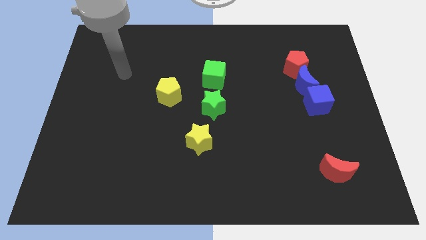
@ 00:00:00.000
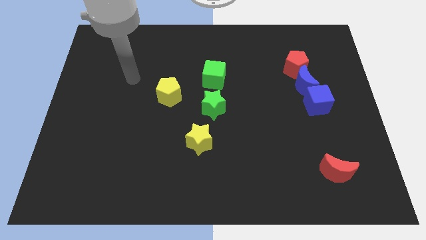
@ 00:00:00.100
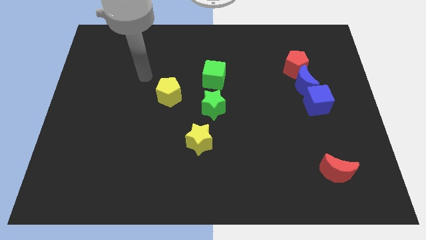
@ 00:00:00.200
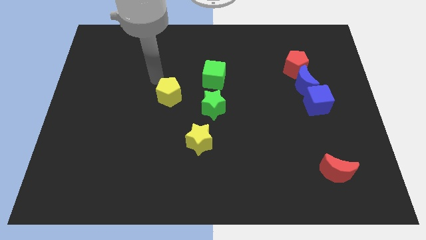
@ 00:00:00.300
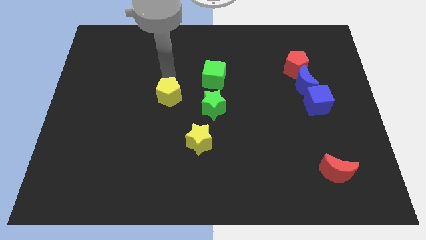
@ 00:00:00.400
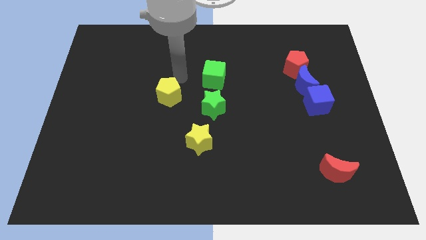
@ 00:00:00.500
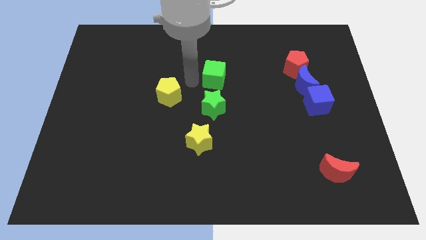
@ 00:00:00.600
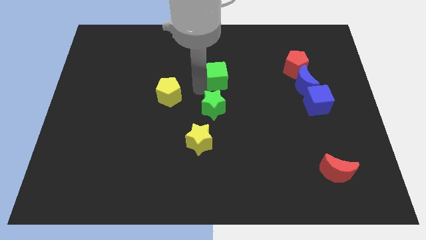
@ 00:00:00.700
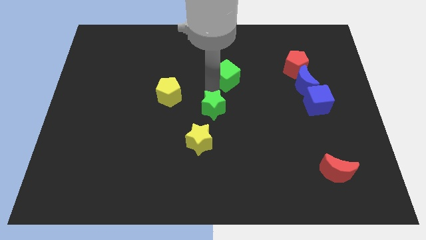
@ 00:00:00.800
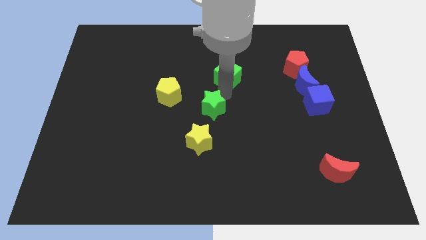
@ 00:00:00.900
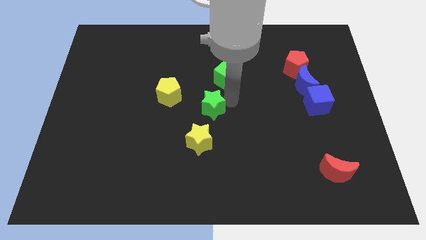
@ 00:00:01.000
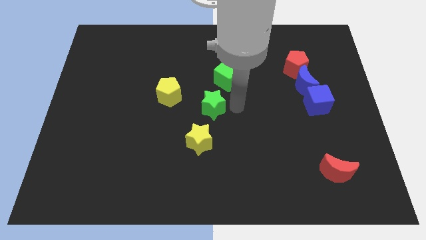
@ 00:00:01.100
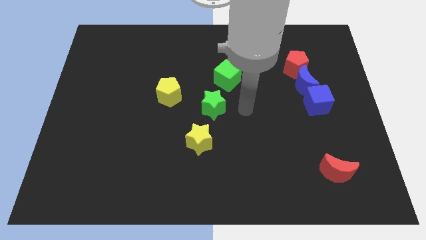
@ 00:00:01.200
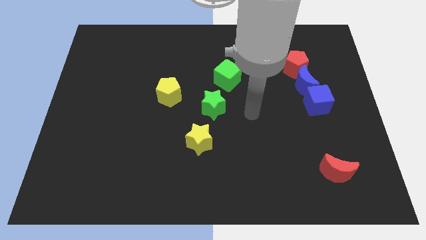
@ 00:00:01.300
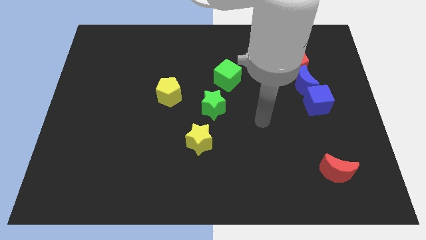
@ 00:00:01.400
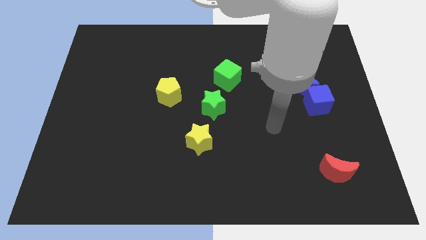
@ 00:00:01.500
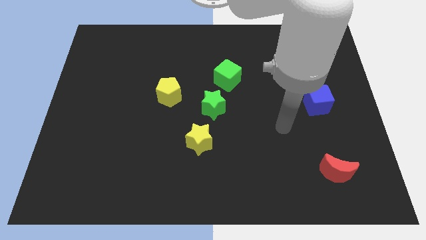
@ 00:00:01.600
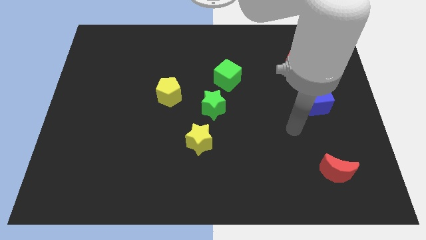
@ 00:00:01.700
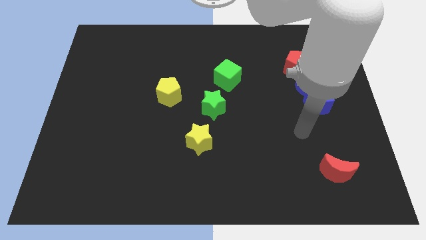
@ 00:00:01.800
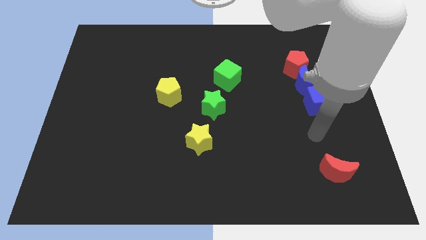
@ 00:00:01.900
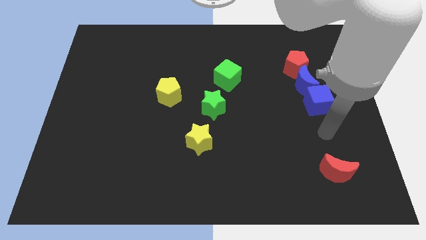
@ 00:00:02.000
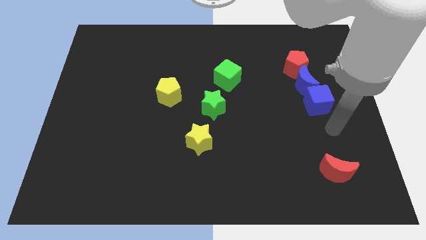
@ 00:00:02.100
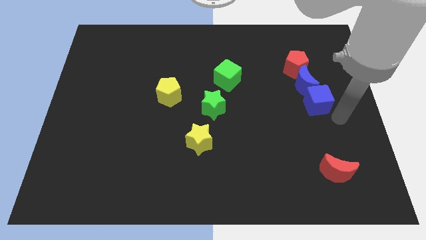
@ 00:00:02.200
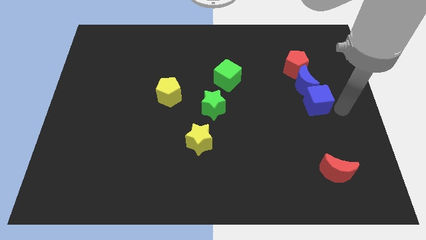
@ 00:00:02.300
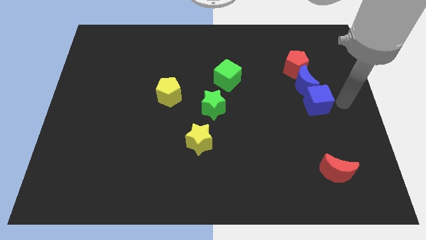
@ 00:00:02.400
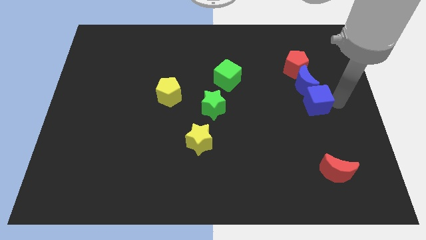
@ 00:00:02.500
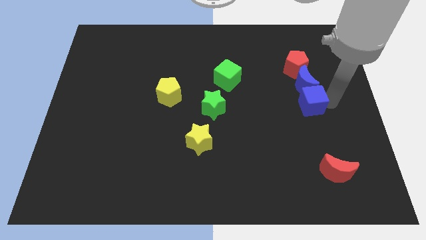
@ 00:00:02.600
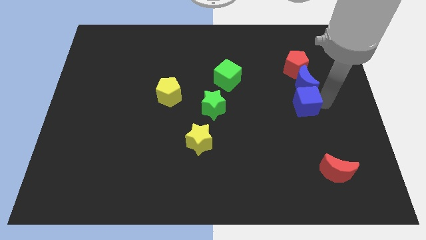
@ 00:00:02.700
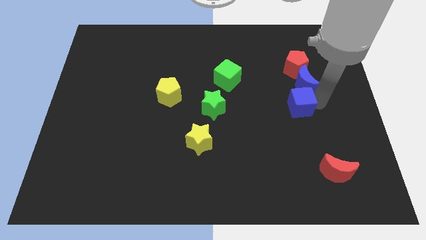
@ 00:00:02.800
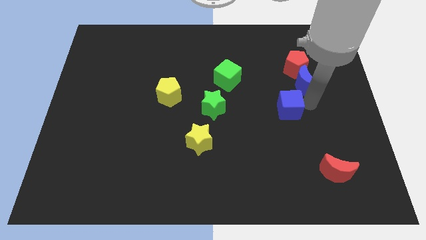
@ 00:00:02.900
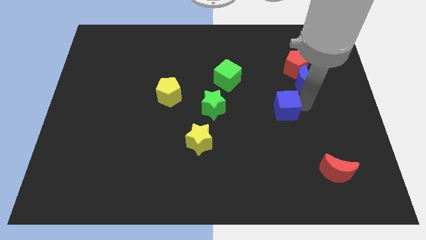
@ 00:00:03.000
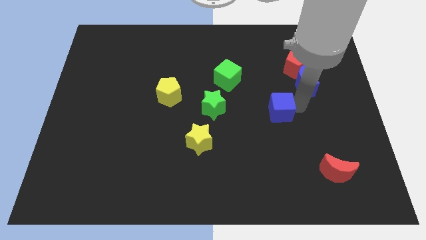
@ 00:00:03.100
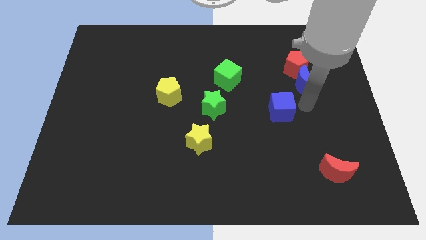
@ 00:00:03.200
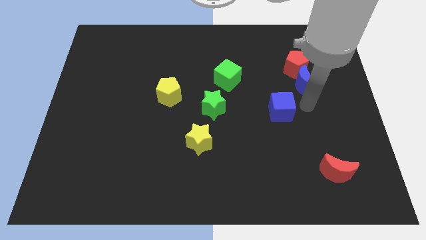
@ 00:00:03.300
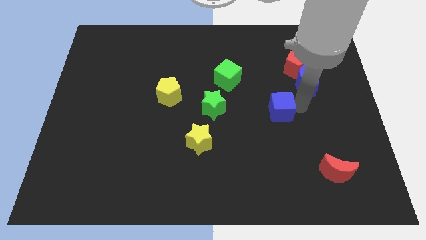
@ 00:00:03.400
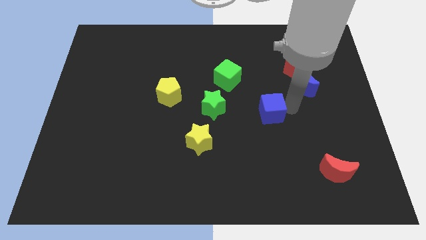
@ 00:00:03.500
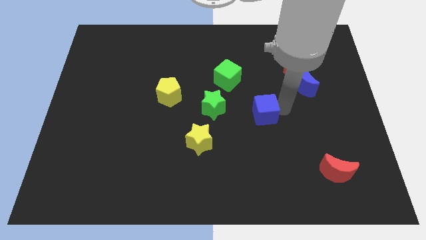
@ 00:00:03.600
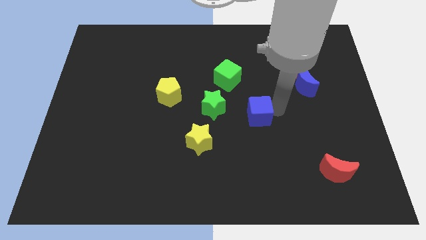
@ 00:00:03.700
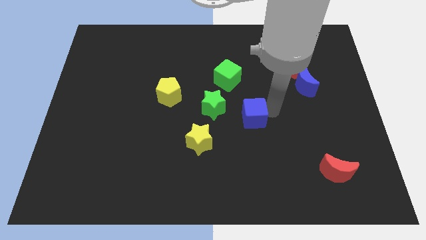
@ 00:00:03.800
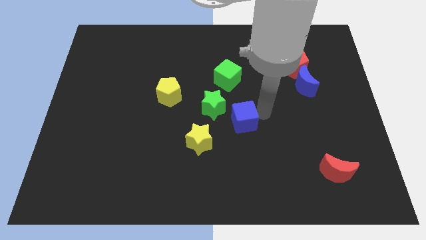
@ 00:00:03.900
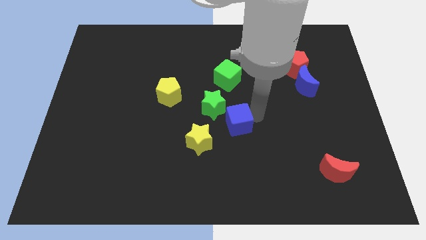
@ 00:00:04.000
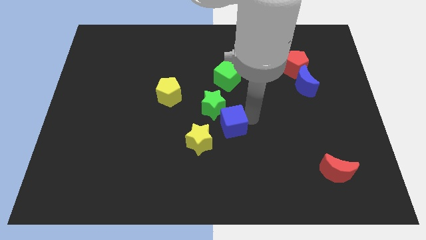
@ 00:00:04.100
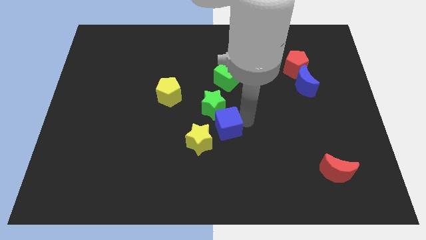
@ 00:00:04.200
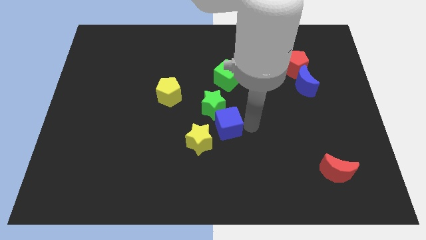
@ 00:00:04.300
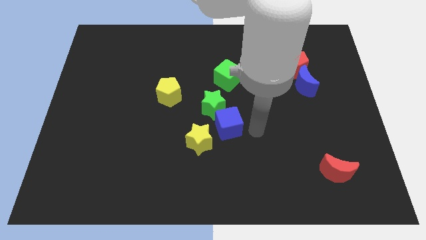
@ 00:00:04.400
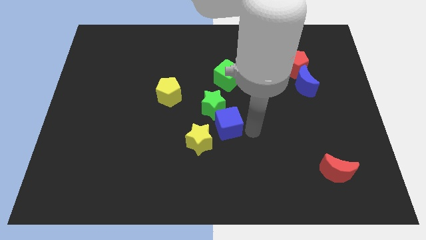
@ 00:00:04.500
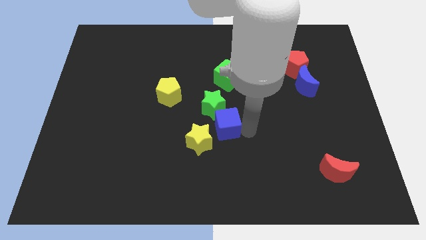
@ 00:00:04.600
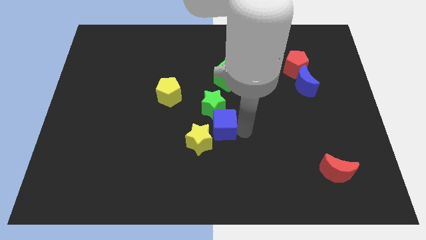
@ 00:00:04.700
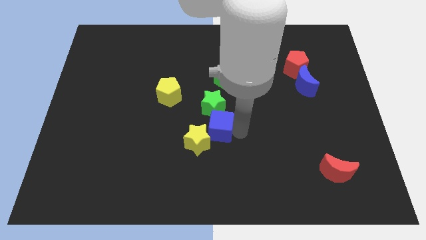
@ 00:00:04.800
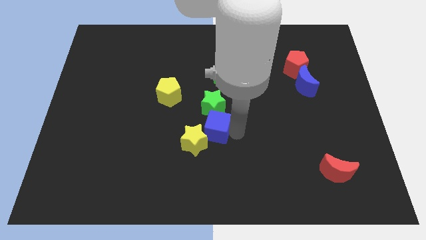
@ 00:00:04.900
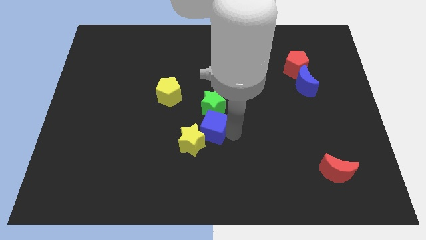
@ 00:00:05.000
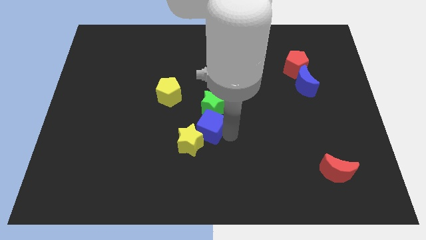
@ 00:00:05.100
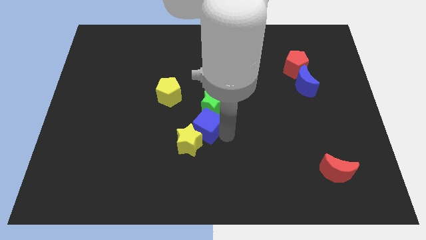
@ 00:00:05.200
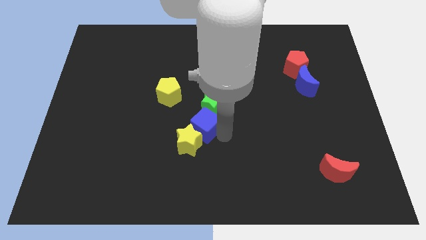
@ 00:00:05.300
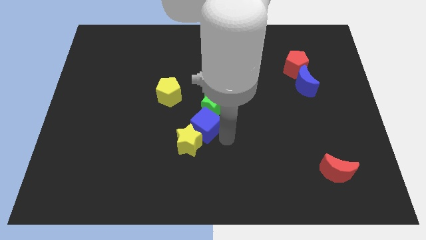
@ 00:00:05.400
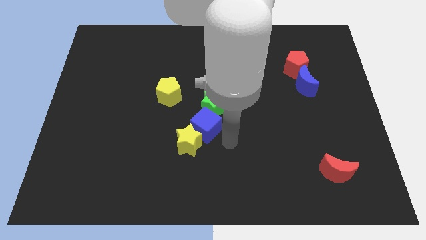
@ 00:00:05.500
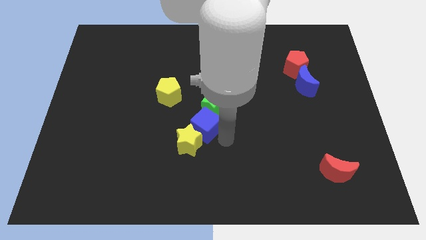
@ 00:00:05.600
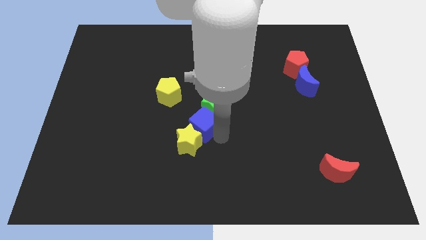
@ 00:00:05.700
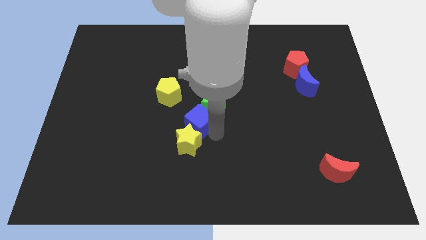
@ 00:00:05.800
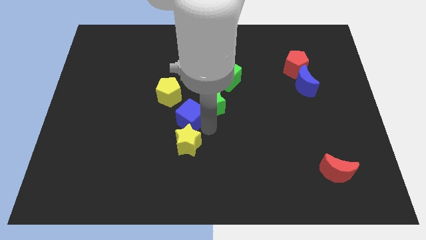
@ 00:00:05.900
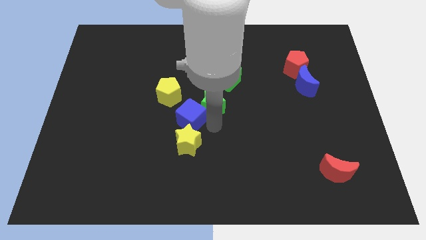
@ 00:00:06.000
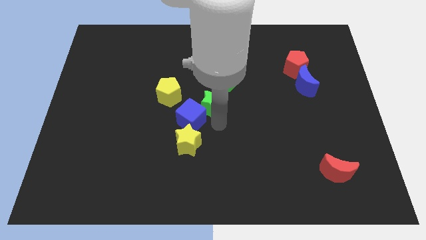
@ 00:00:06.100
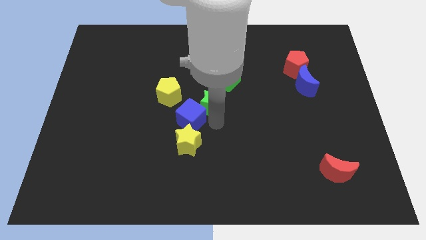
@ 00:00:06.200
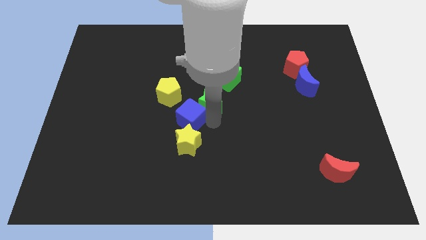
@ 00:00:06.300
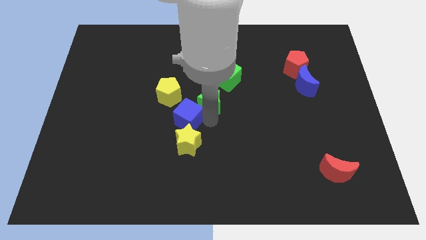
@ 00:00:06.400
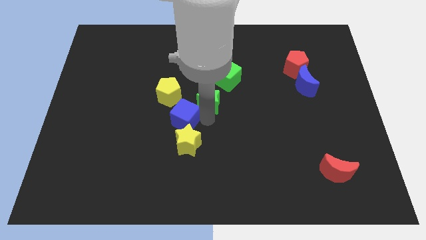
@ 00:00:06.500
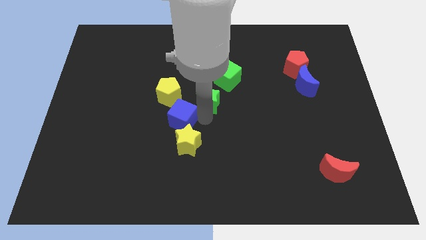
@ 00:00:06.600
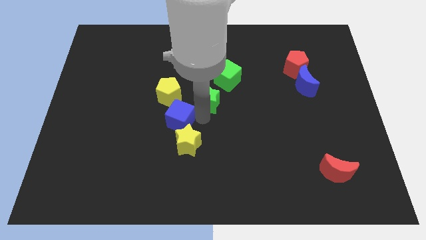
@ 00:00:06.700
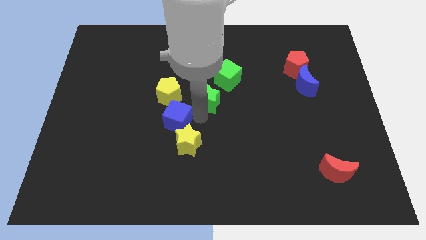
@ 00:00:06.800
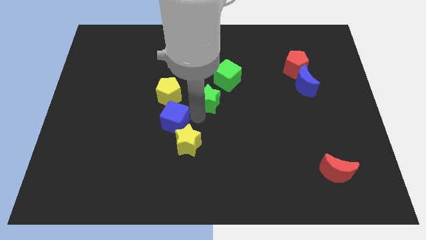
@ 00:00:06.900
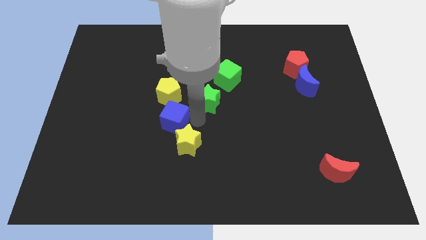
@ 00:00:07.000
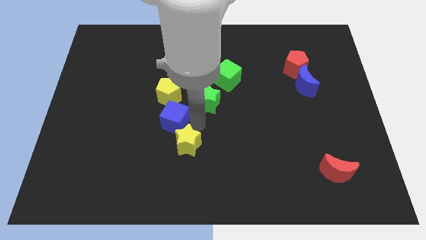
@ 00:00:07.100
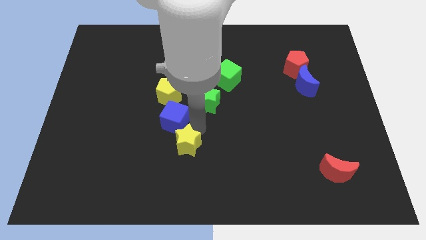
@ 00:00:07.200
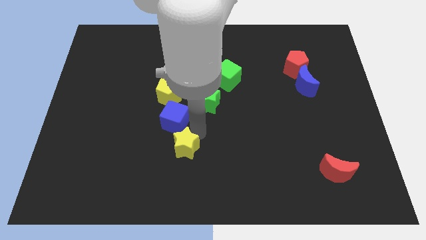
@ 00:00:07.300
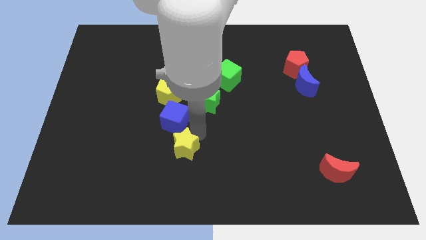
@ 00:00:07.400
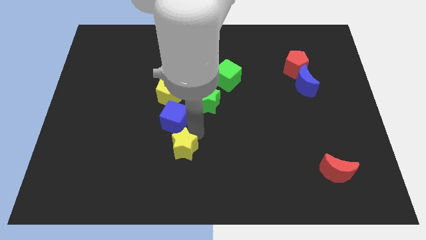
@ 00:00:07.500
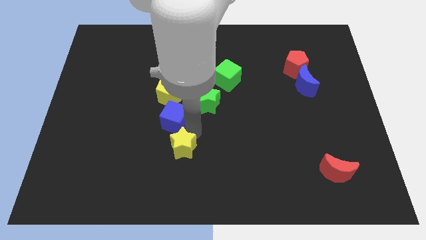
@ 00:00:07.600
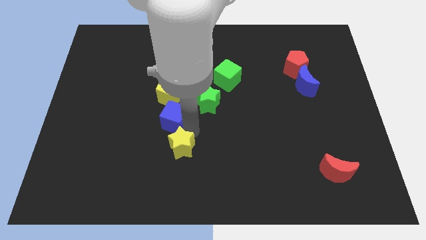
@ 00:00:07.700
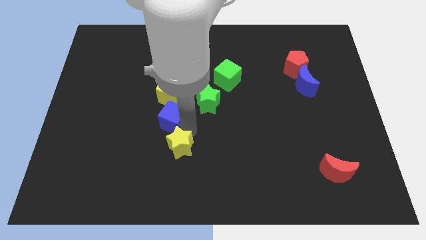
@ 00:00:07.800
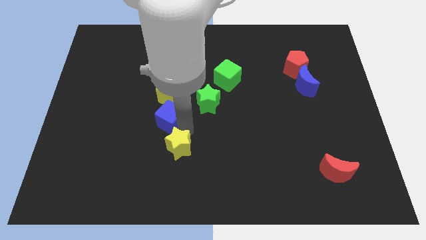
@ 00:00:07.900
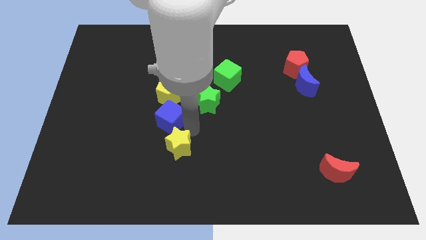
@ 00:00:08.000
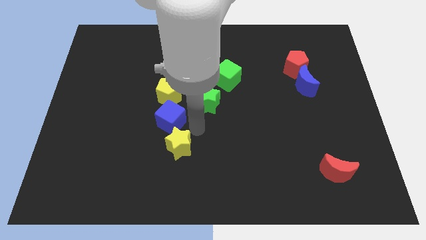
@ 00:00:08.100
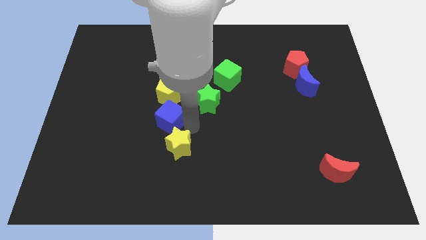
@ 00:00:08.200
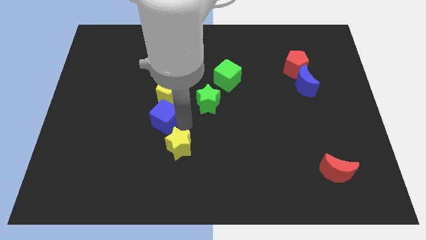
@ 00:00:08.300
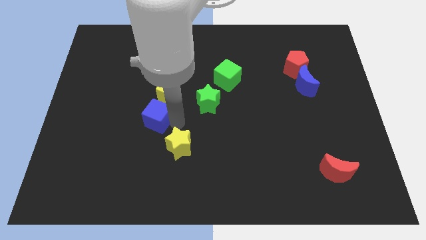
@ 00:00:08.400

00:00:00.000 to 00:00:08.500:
push the blue cube to the bottom left side of the yellow pentagon
